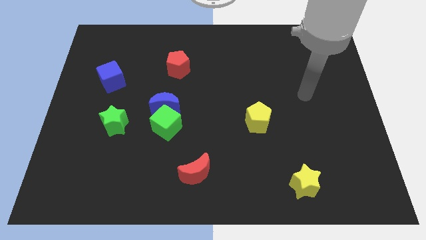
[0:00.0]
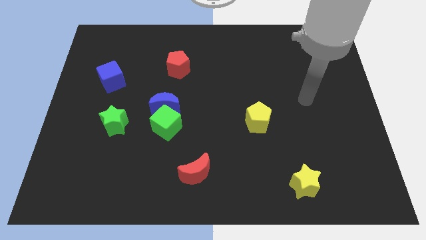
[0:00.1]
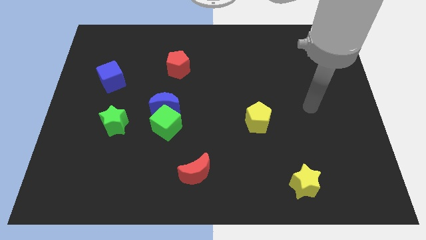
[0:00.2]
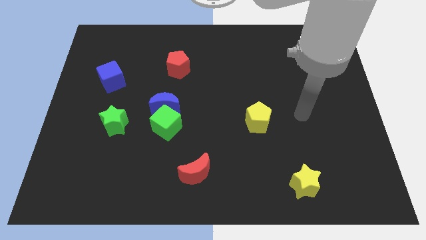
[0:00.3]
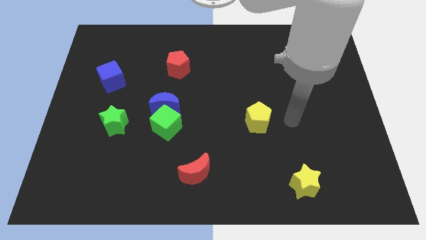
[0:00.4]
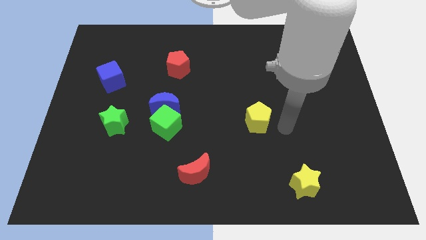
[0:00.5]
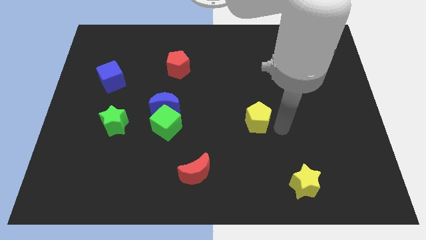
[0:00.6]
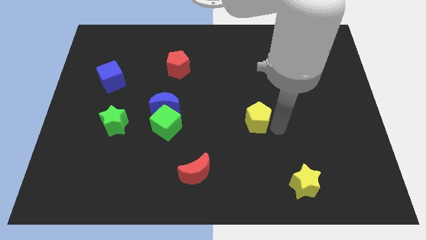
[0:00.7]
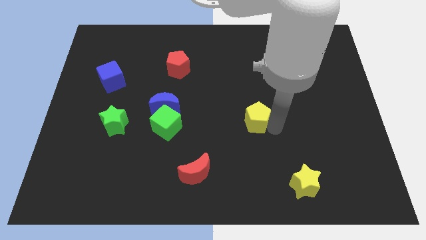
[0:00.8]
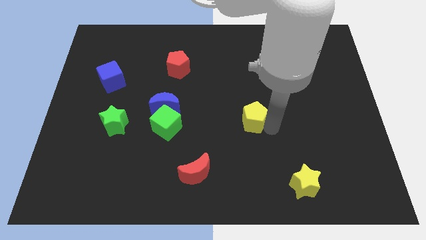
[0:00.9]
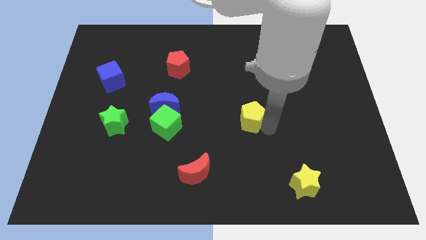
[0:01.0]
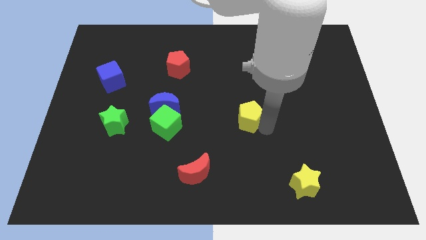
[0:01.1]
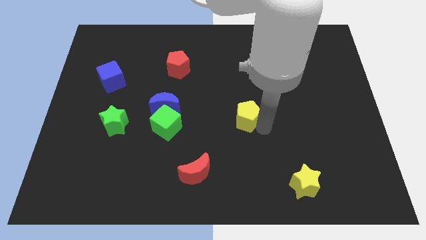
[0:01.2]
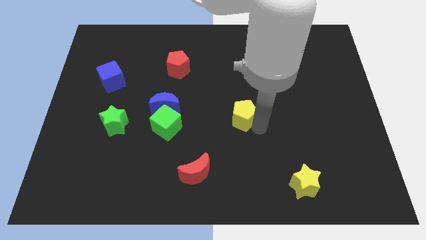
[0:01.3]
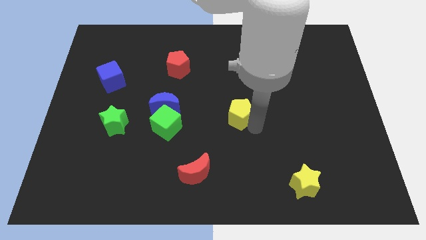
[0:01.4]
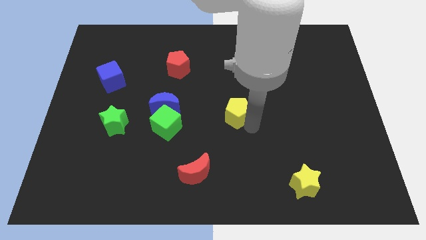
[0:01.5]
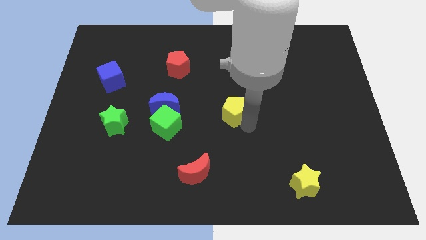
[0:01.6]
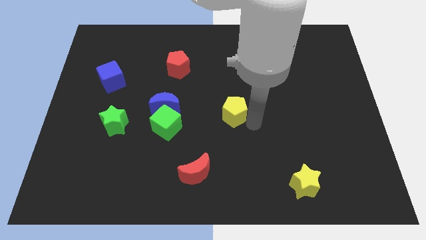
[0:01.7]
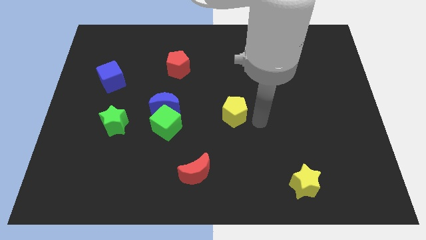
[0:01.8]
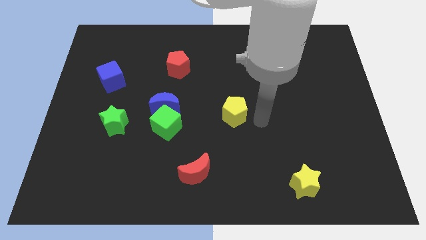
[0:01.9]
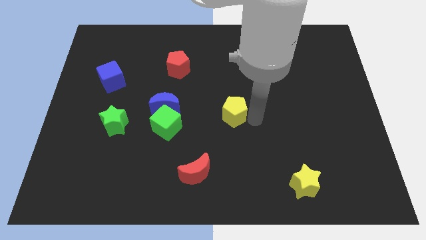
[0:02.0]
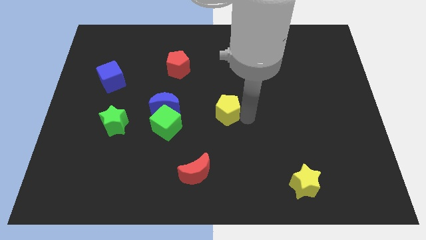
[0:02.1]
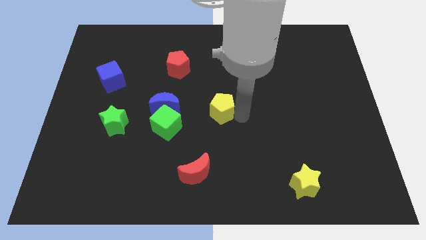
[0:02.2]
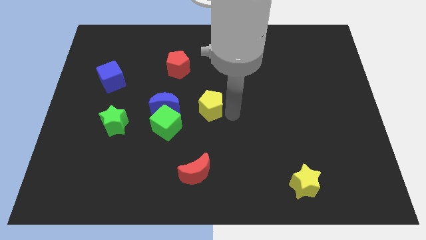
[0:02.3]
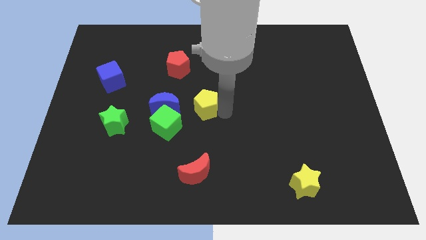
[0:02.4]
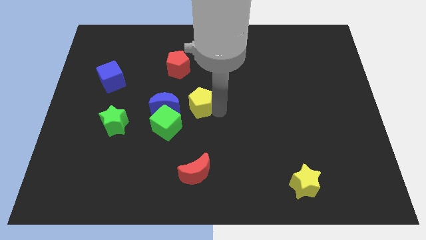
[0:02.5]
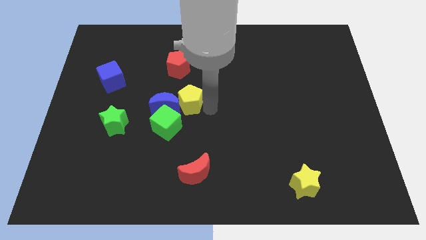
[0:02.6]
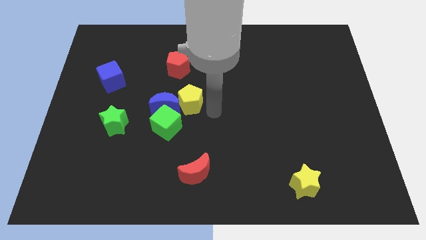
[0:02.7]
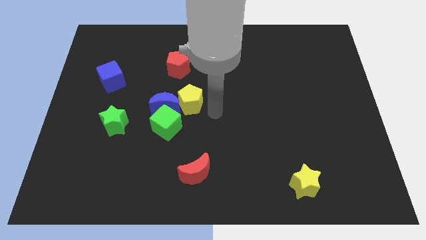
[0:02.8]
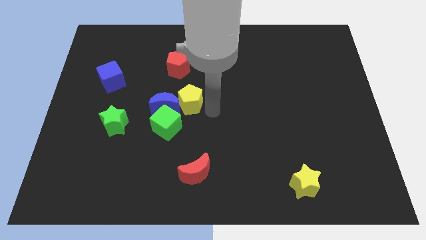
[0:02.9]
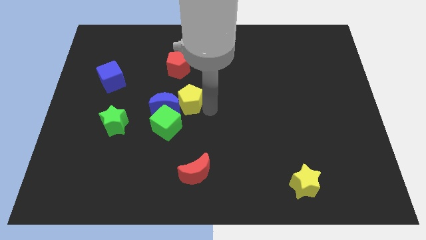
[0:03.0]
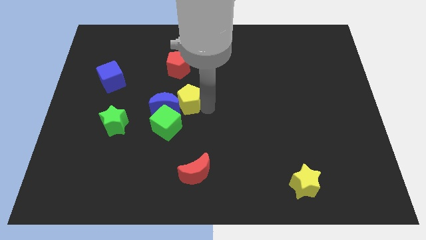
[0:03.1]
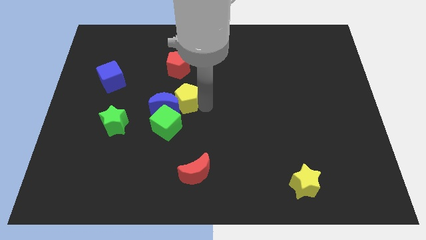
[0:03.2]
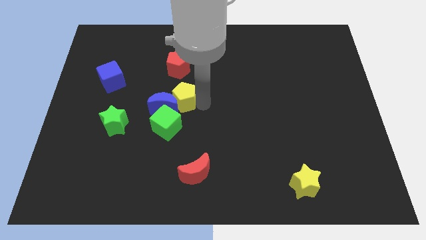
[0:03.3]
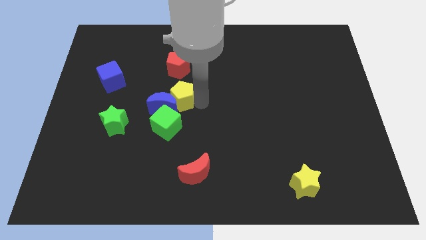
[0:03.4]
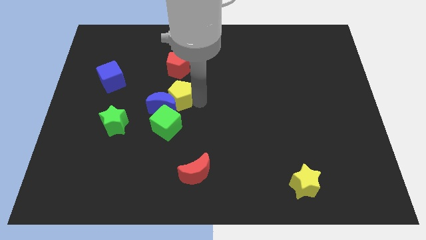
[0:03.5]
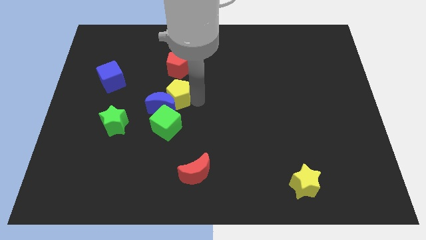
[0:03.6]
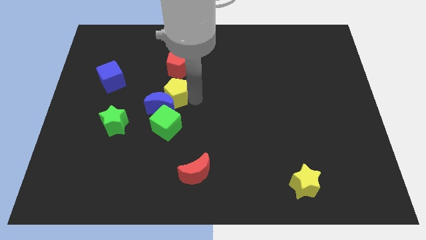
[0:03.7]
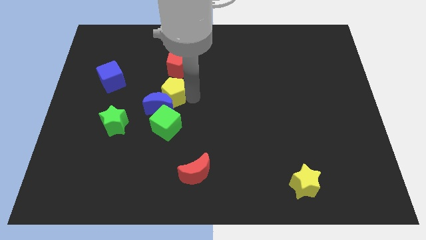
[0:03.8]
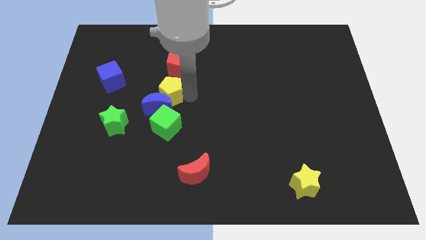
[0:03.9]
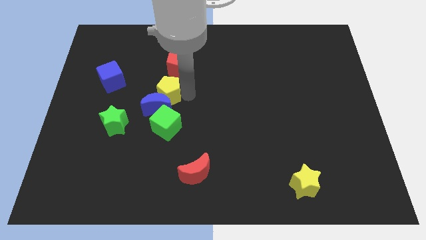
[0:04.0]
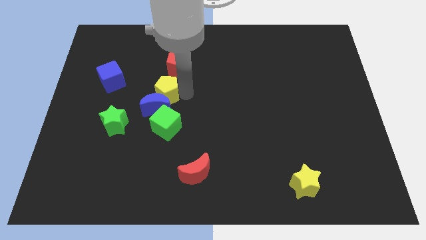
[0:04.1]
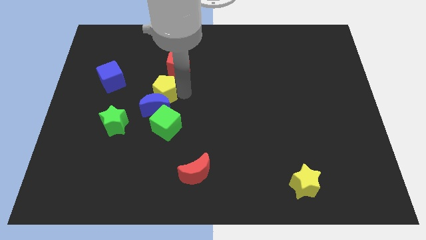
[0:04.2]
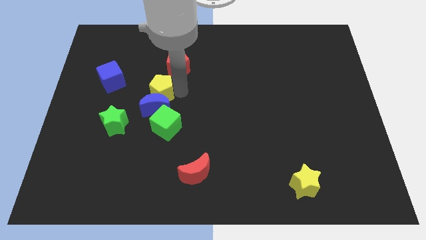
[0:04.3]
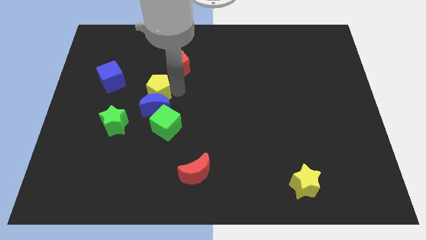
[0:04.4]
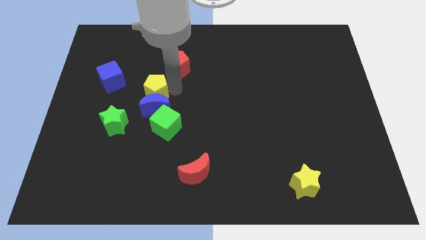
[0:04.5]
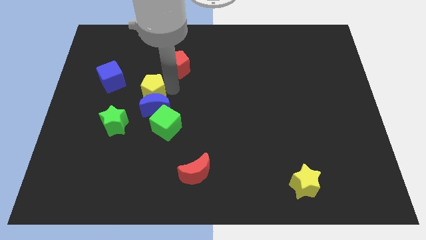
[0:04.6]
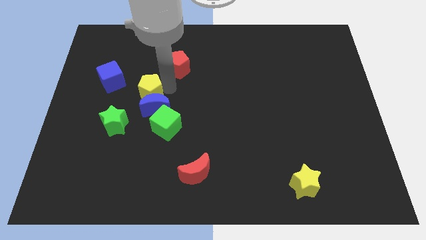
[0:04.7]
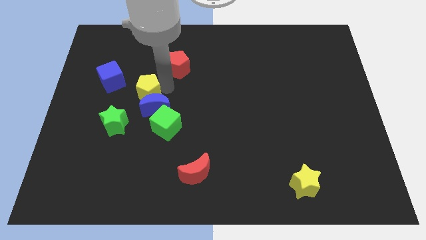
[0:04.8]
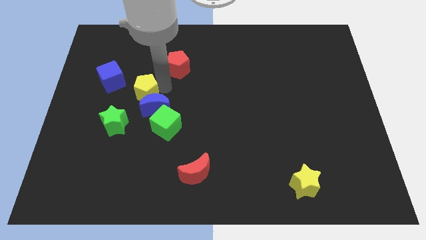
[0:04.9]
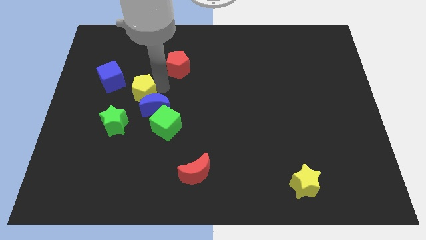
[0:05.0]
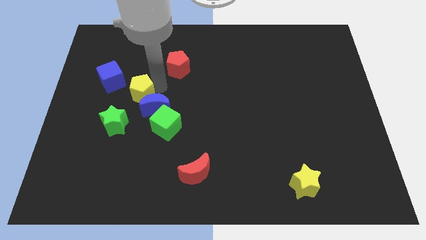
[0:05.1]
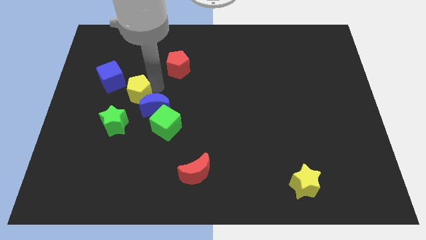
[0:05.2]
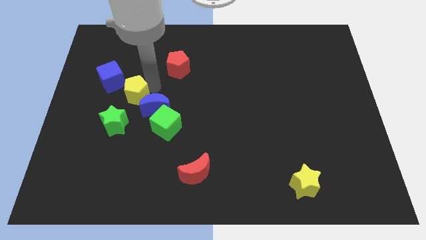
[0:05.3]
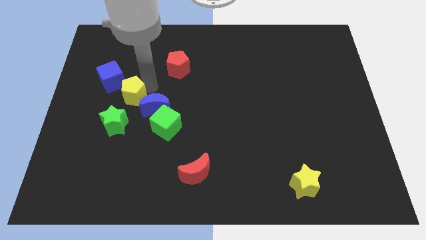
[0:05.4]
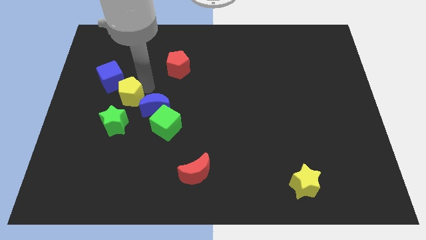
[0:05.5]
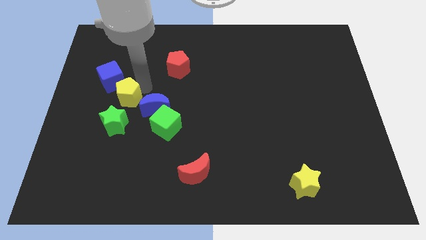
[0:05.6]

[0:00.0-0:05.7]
push the yellow pentagon to the bottom of the blue cube

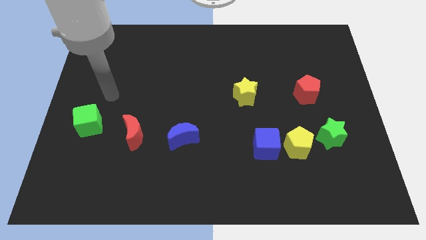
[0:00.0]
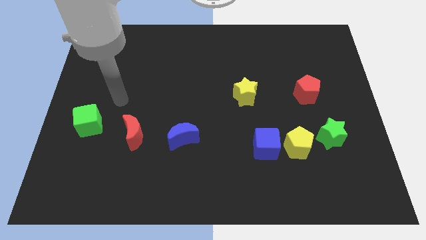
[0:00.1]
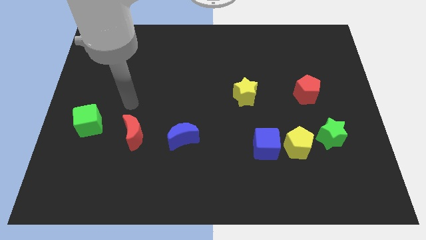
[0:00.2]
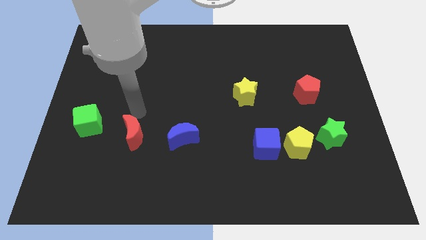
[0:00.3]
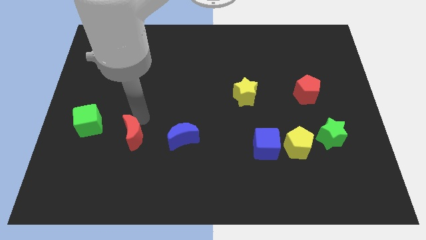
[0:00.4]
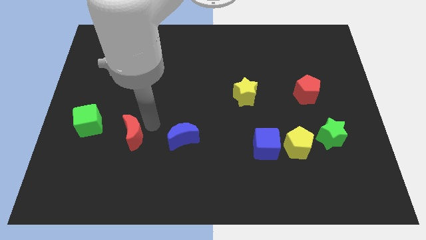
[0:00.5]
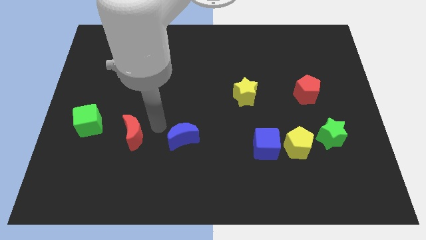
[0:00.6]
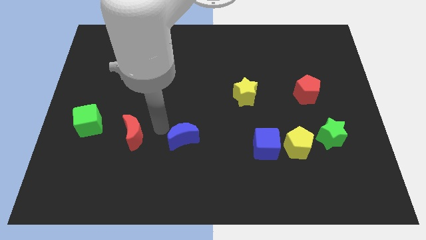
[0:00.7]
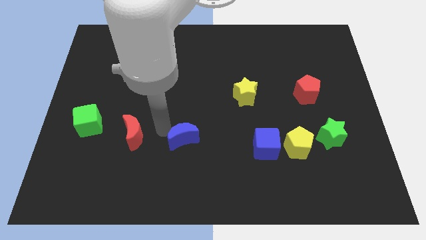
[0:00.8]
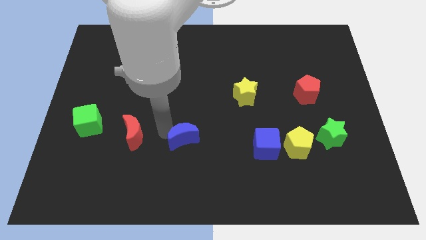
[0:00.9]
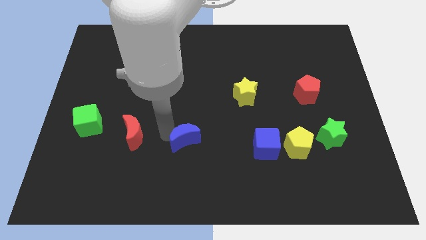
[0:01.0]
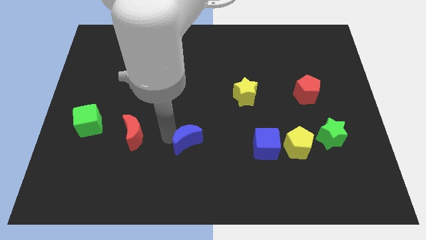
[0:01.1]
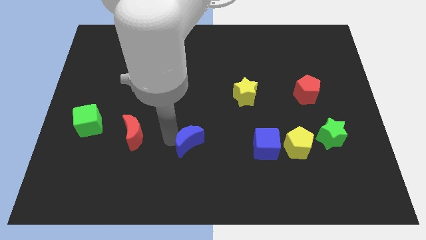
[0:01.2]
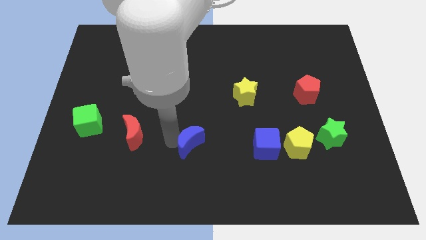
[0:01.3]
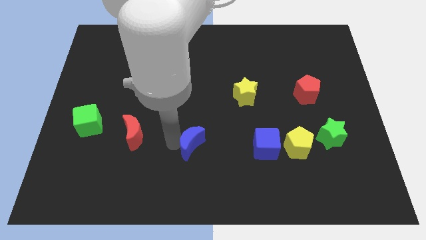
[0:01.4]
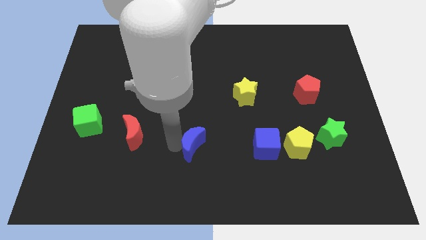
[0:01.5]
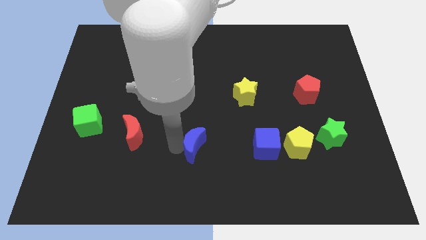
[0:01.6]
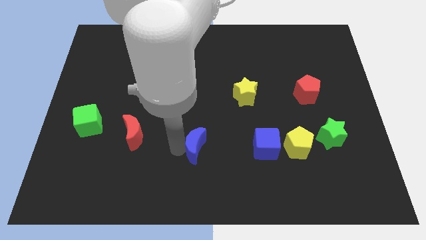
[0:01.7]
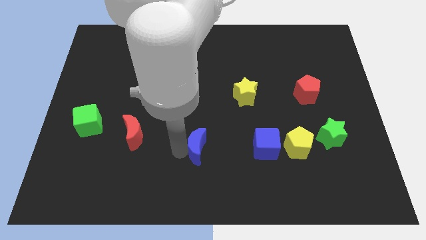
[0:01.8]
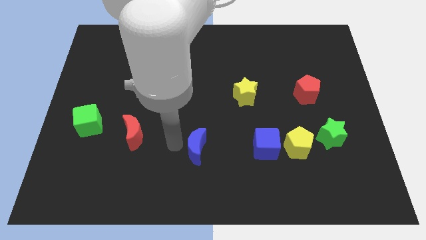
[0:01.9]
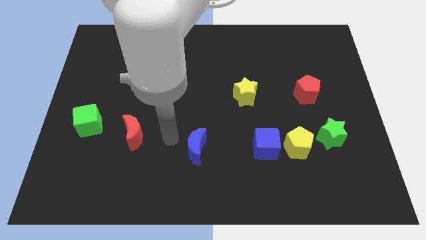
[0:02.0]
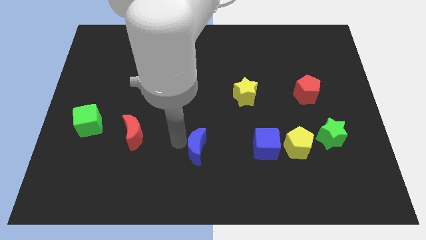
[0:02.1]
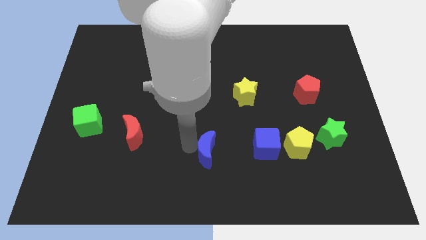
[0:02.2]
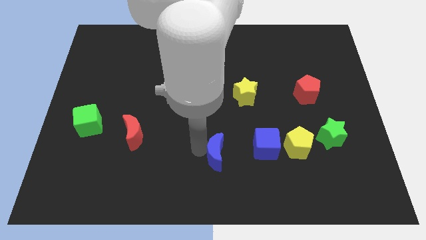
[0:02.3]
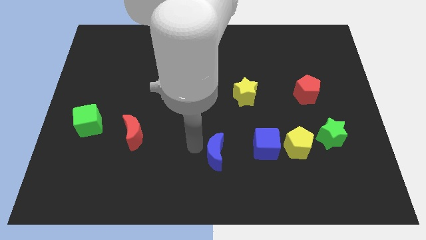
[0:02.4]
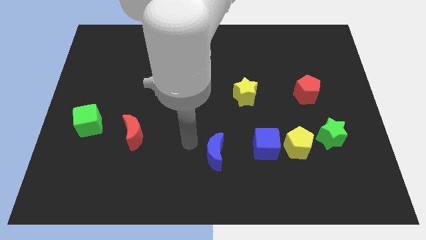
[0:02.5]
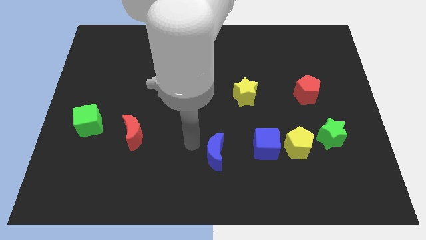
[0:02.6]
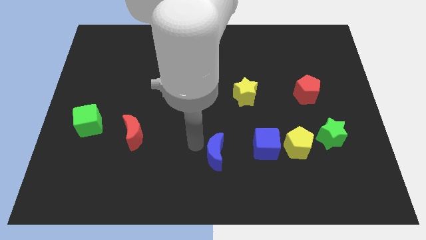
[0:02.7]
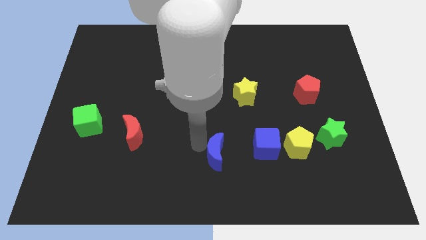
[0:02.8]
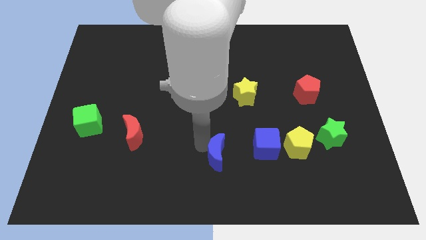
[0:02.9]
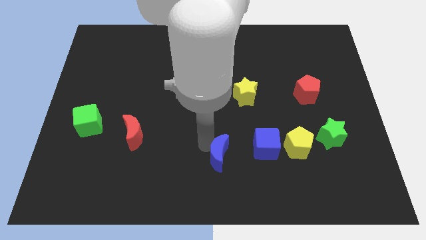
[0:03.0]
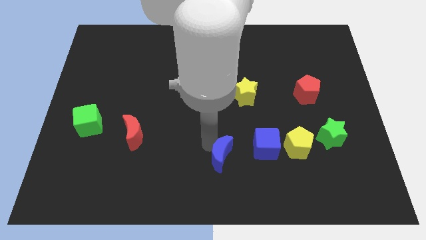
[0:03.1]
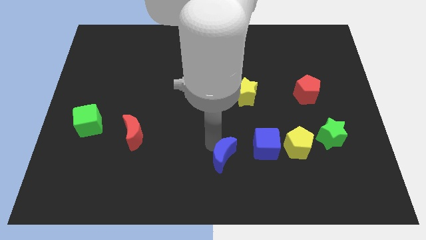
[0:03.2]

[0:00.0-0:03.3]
move the blue moon to the bottom left of the blue cube
